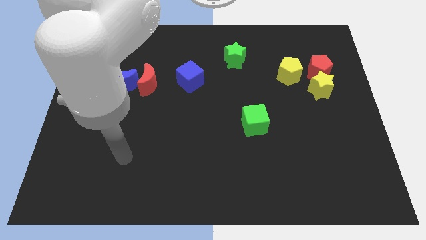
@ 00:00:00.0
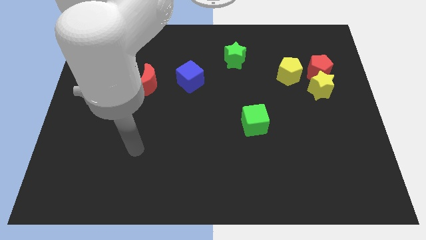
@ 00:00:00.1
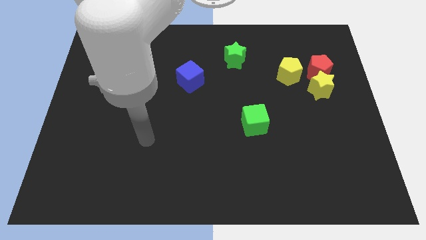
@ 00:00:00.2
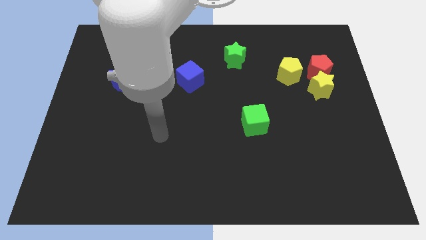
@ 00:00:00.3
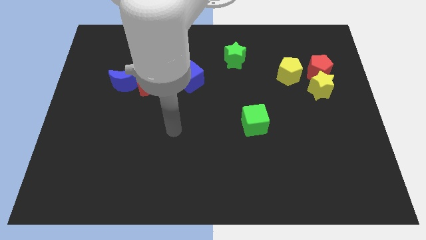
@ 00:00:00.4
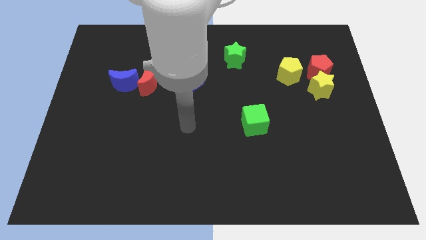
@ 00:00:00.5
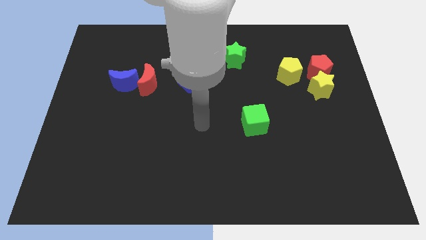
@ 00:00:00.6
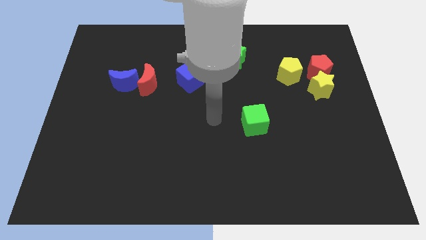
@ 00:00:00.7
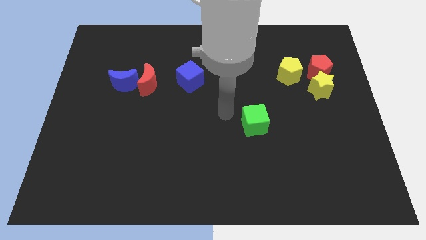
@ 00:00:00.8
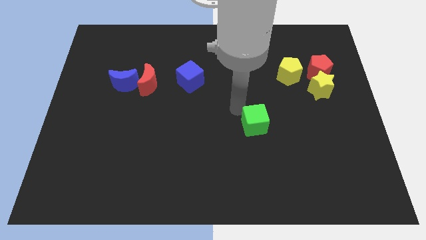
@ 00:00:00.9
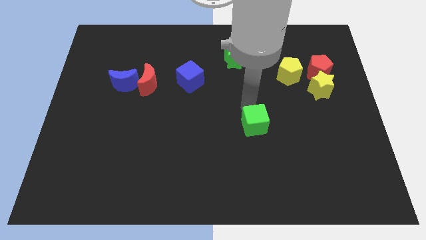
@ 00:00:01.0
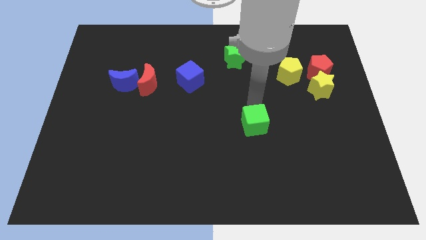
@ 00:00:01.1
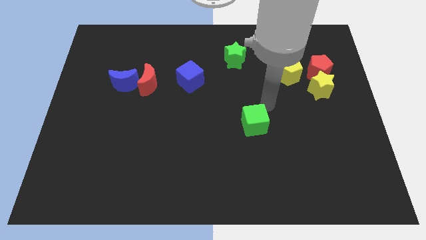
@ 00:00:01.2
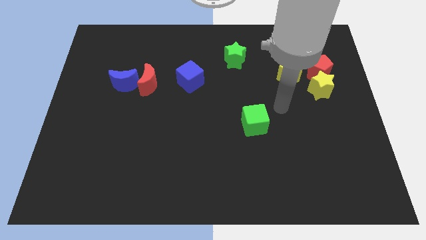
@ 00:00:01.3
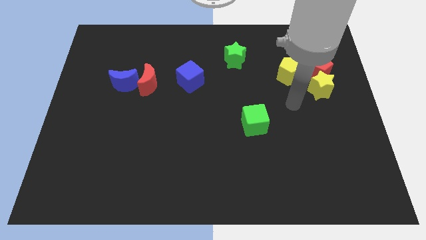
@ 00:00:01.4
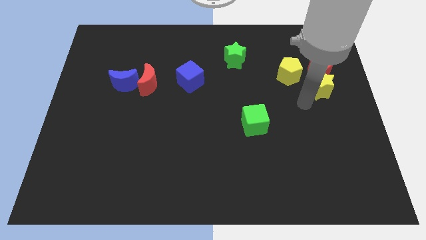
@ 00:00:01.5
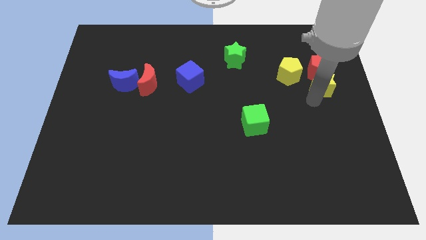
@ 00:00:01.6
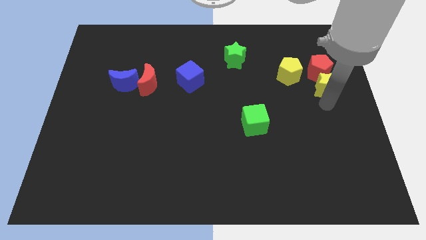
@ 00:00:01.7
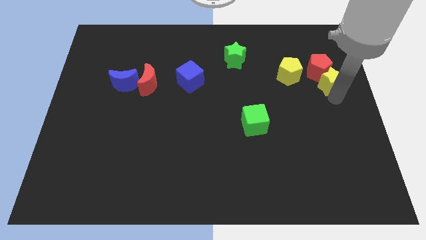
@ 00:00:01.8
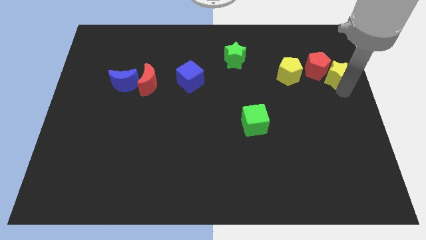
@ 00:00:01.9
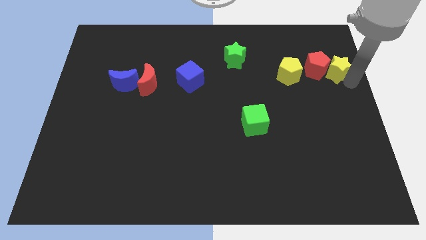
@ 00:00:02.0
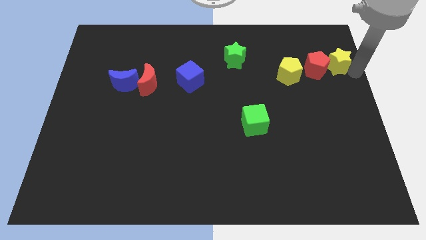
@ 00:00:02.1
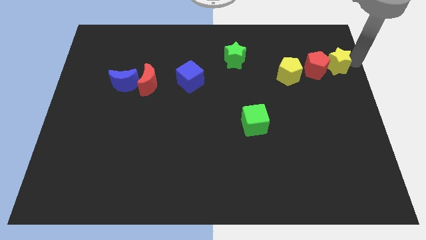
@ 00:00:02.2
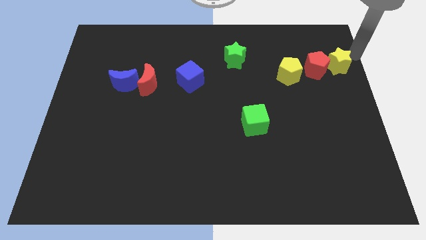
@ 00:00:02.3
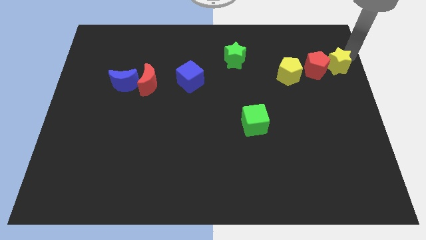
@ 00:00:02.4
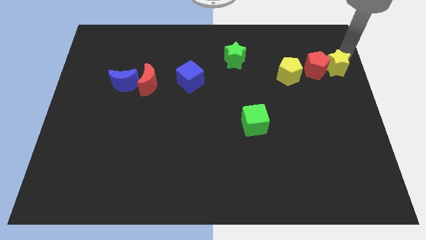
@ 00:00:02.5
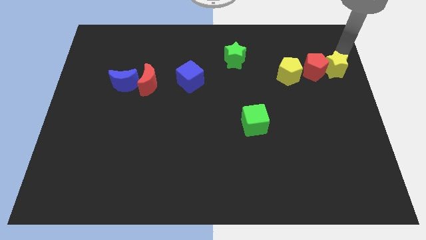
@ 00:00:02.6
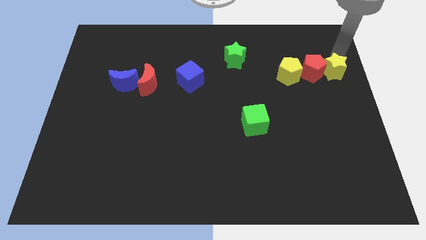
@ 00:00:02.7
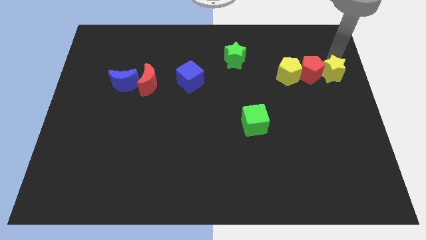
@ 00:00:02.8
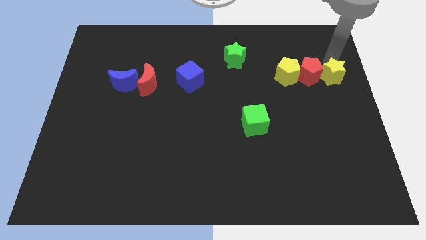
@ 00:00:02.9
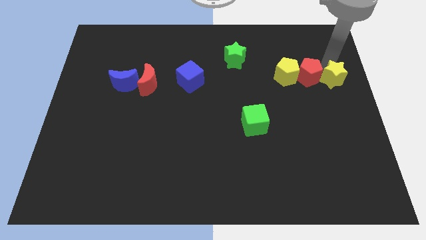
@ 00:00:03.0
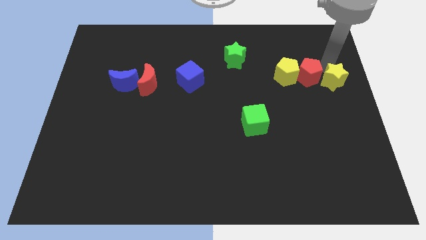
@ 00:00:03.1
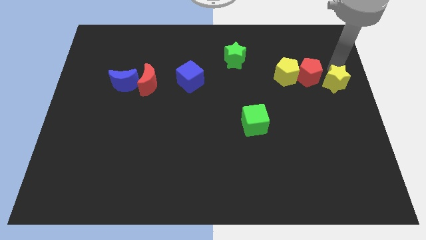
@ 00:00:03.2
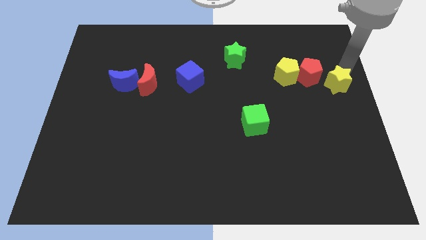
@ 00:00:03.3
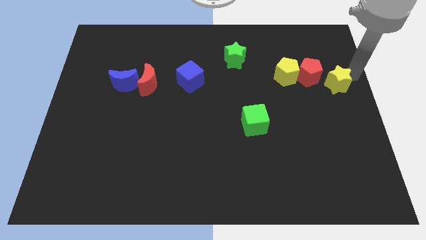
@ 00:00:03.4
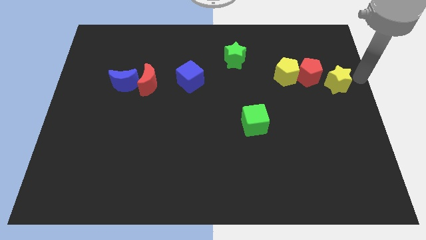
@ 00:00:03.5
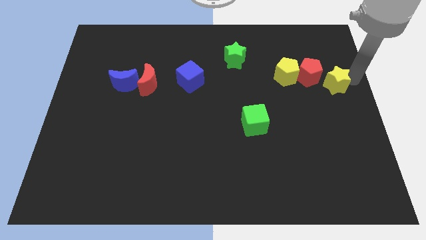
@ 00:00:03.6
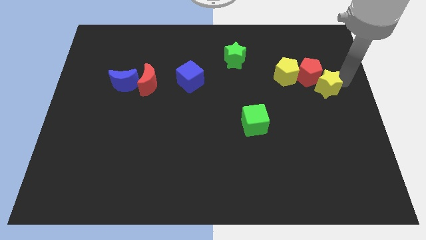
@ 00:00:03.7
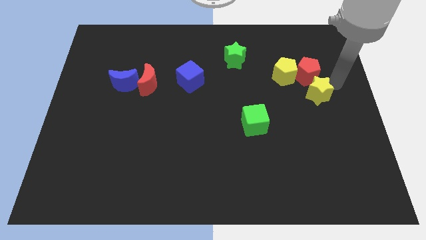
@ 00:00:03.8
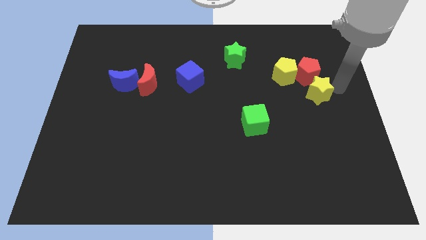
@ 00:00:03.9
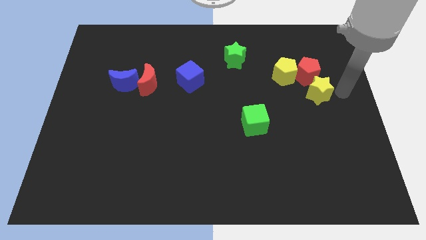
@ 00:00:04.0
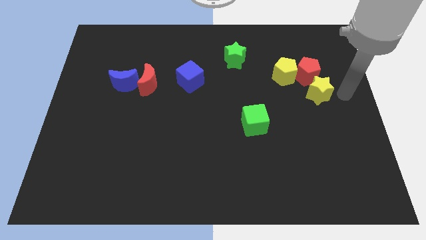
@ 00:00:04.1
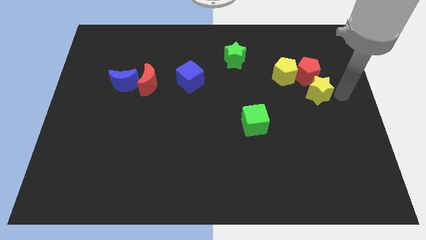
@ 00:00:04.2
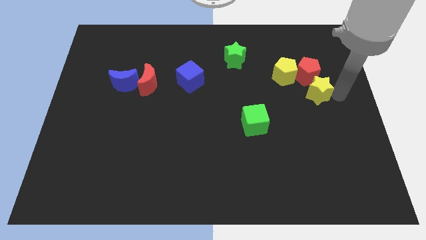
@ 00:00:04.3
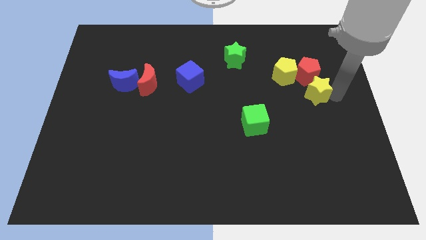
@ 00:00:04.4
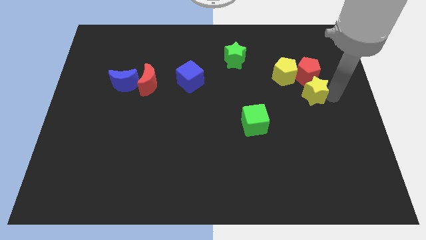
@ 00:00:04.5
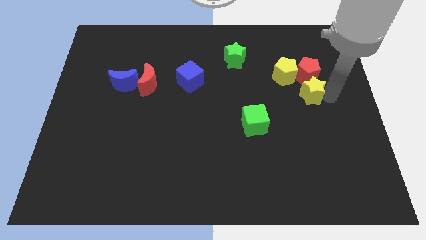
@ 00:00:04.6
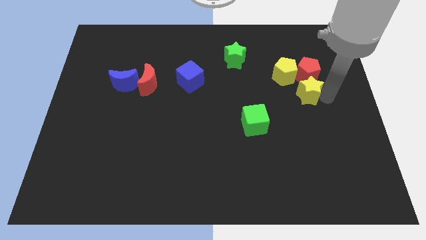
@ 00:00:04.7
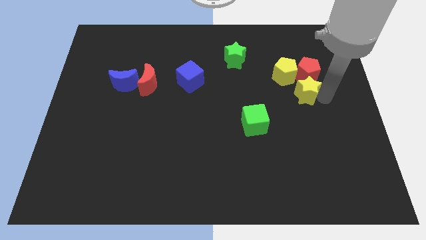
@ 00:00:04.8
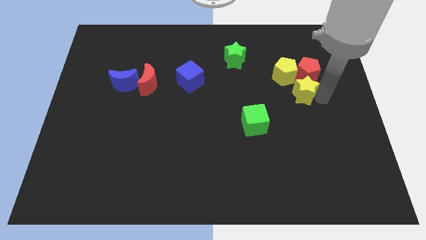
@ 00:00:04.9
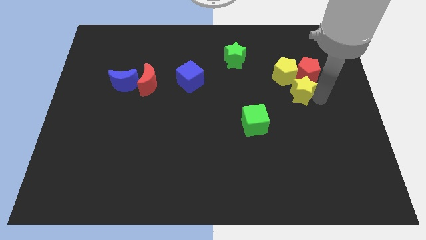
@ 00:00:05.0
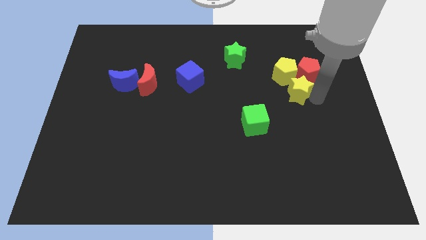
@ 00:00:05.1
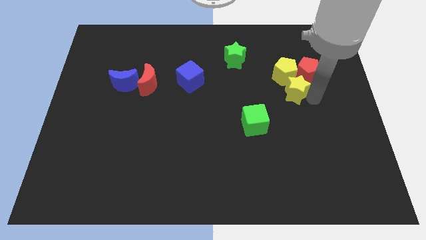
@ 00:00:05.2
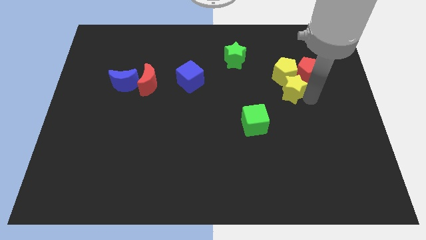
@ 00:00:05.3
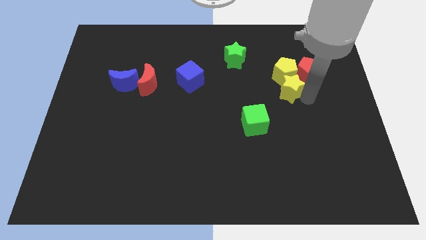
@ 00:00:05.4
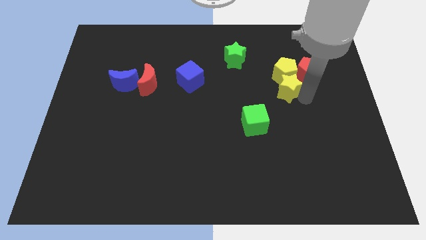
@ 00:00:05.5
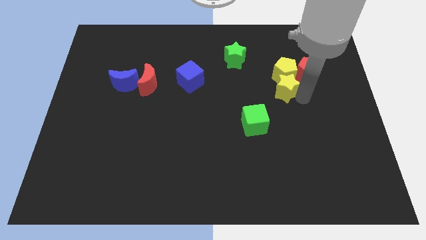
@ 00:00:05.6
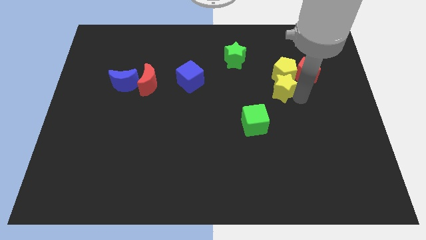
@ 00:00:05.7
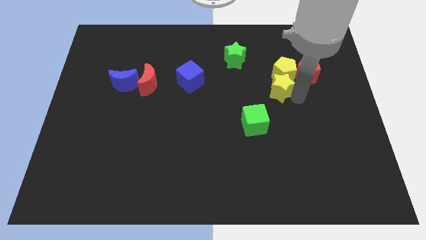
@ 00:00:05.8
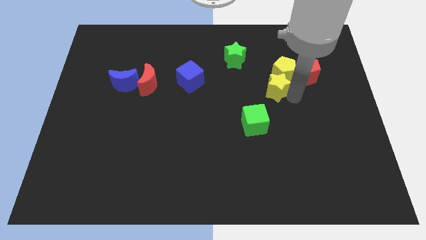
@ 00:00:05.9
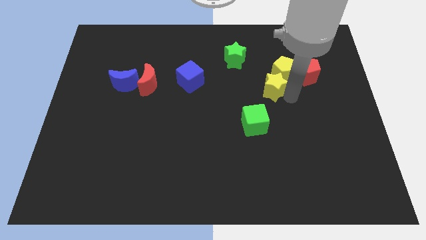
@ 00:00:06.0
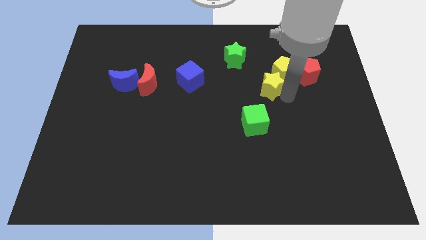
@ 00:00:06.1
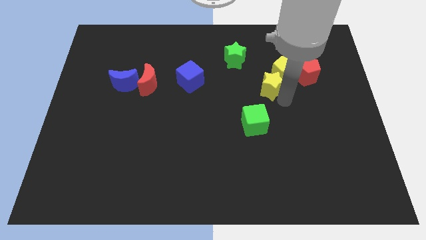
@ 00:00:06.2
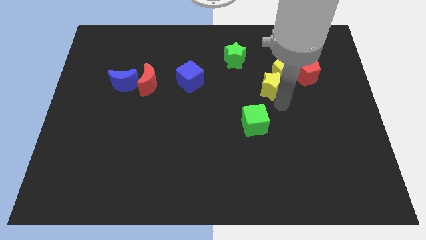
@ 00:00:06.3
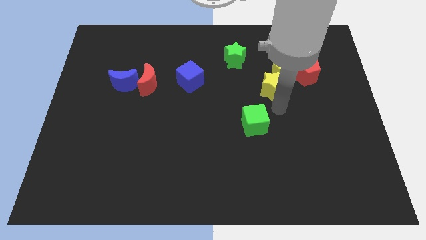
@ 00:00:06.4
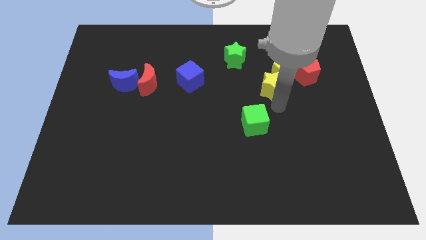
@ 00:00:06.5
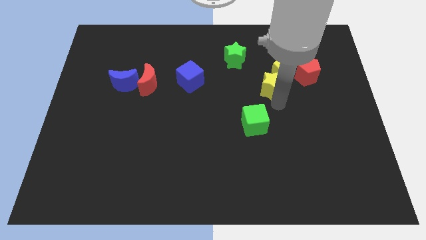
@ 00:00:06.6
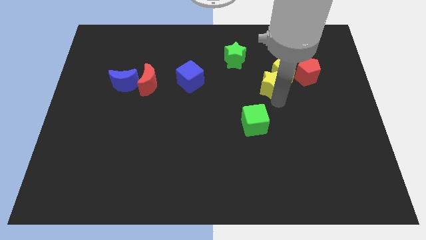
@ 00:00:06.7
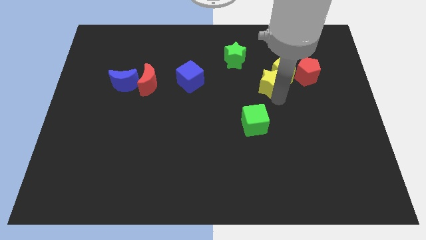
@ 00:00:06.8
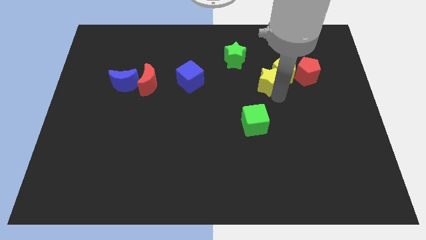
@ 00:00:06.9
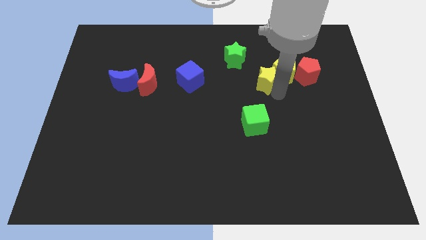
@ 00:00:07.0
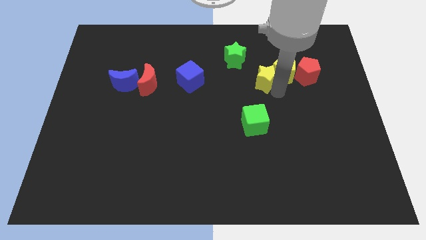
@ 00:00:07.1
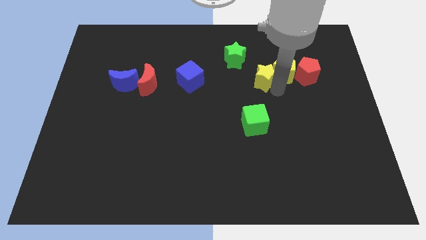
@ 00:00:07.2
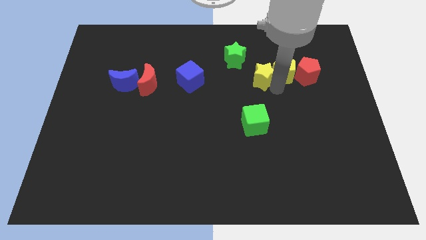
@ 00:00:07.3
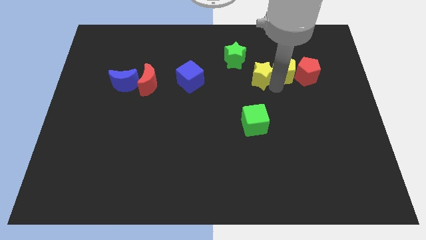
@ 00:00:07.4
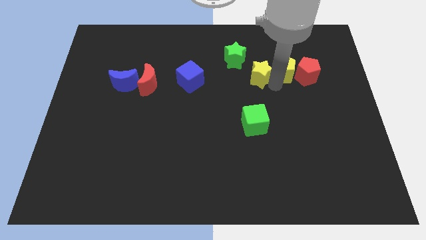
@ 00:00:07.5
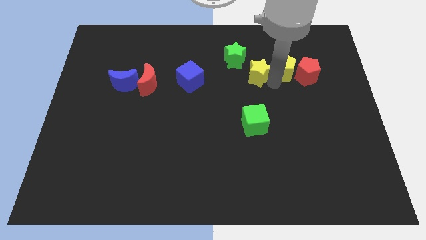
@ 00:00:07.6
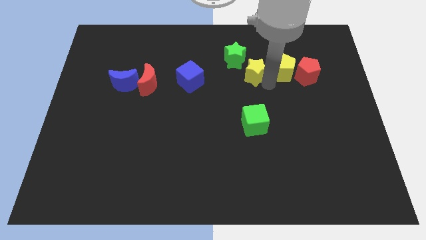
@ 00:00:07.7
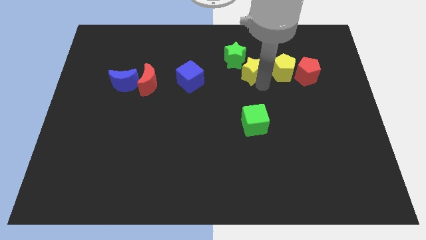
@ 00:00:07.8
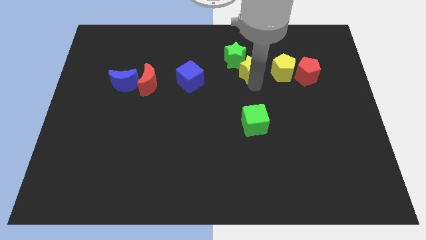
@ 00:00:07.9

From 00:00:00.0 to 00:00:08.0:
push the yellow star just right of the green star

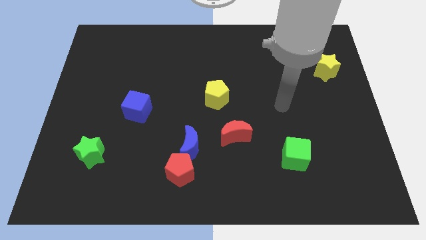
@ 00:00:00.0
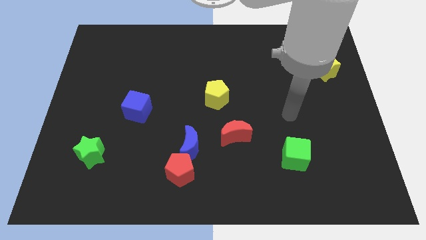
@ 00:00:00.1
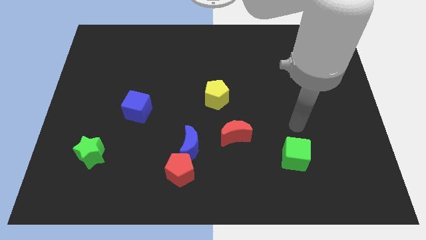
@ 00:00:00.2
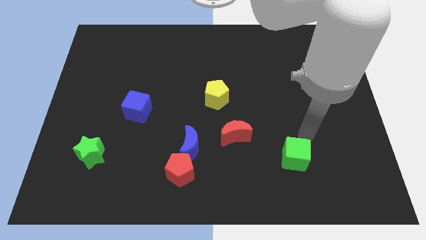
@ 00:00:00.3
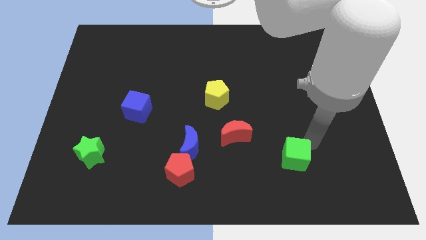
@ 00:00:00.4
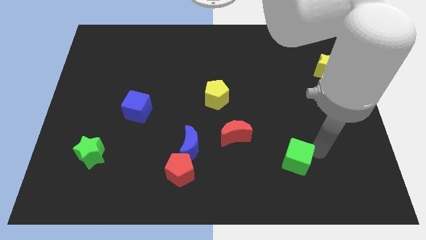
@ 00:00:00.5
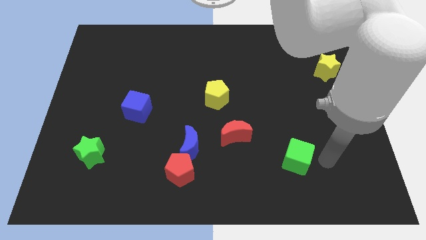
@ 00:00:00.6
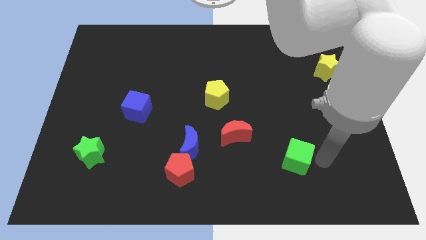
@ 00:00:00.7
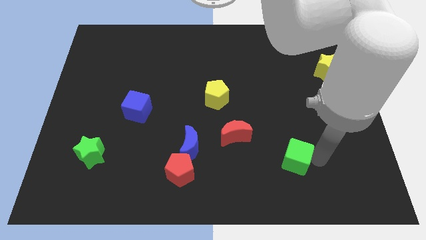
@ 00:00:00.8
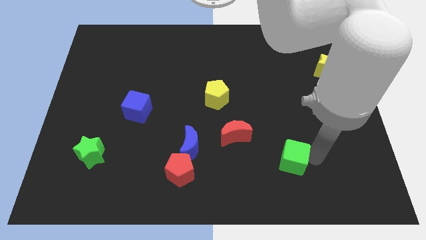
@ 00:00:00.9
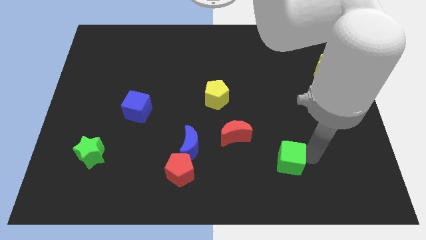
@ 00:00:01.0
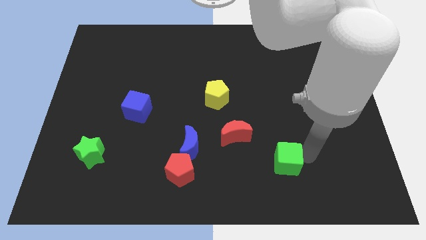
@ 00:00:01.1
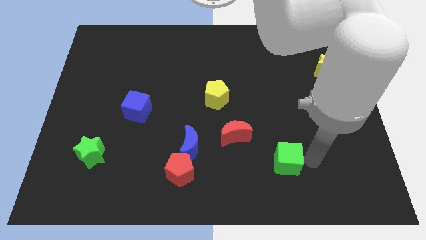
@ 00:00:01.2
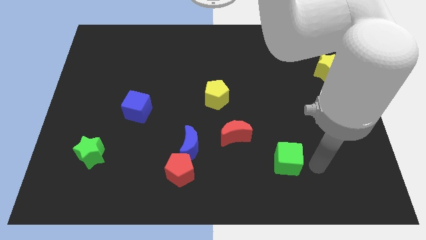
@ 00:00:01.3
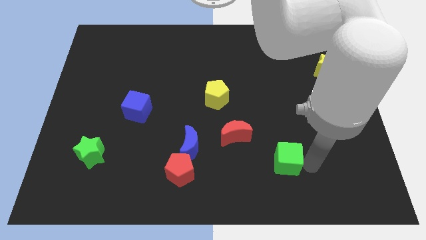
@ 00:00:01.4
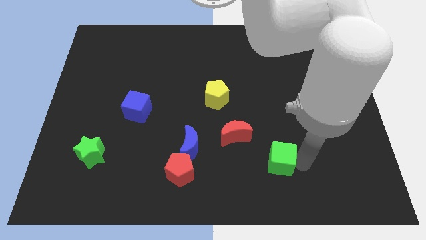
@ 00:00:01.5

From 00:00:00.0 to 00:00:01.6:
move the green cube to the bottom right side of the red moon
